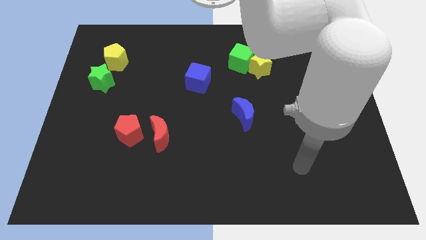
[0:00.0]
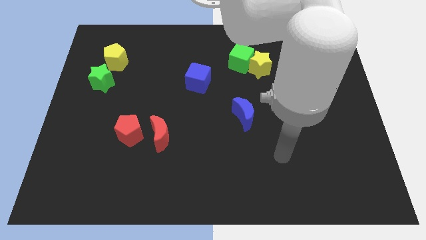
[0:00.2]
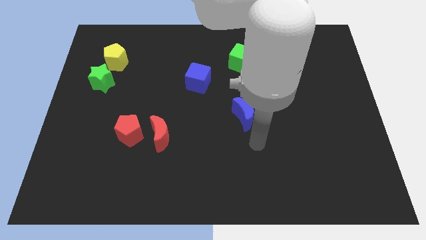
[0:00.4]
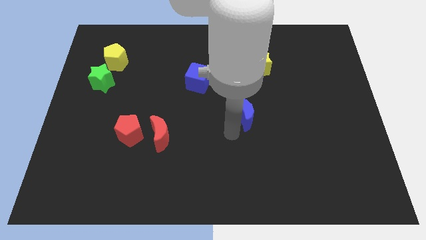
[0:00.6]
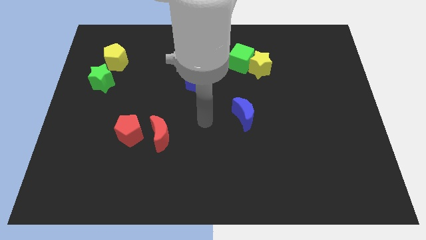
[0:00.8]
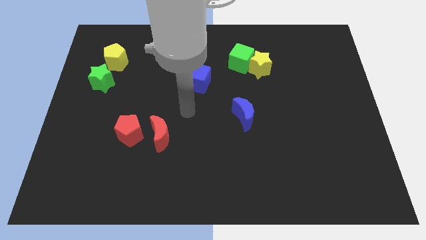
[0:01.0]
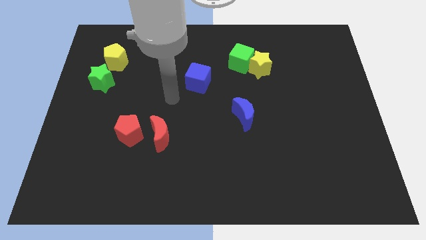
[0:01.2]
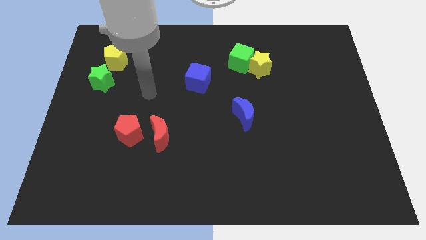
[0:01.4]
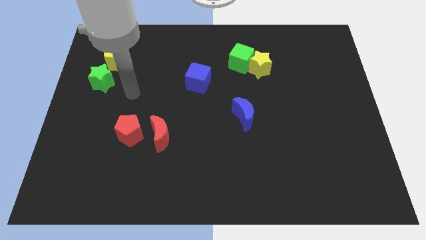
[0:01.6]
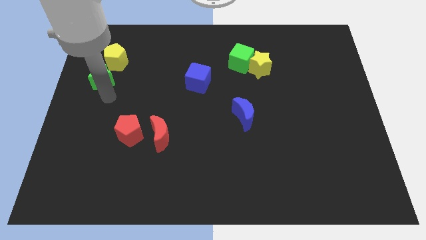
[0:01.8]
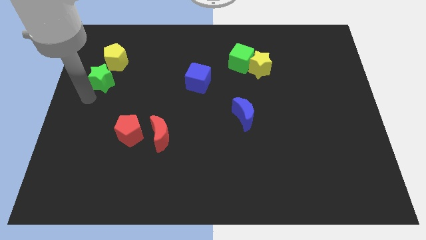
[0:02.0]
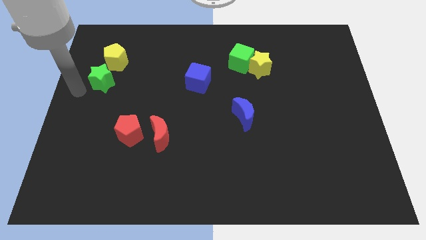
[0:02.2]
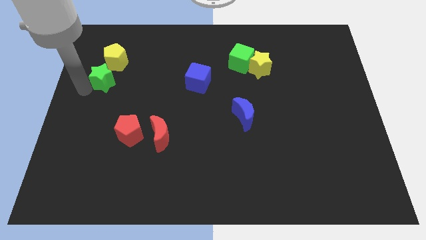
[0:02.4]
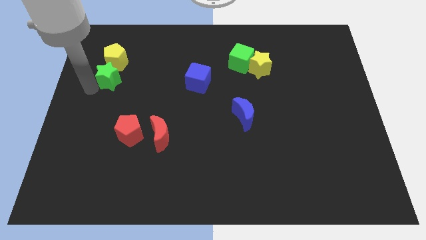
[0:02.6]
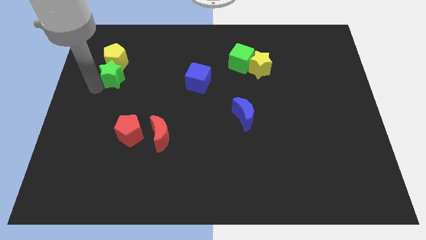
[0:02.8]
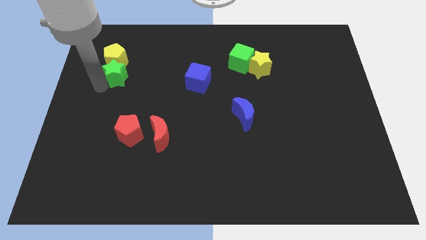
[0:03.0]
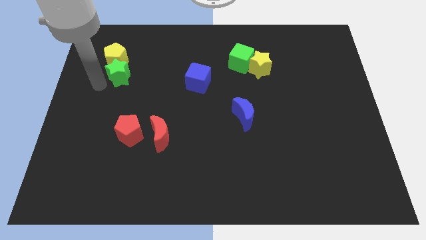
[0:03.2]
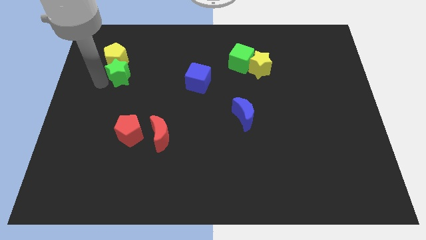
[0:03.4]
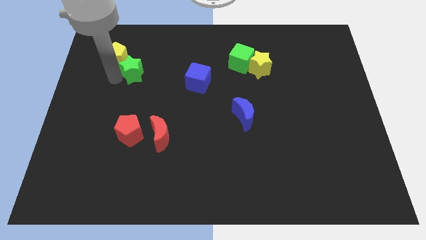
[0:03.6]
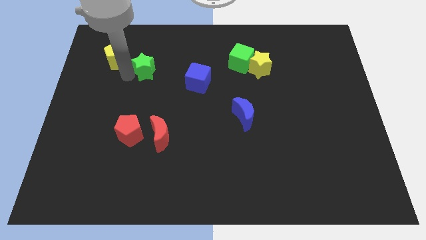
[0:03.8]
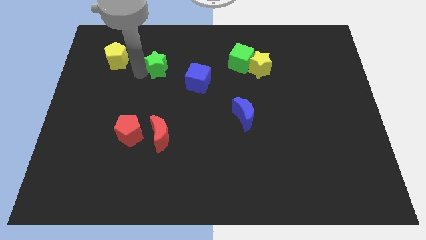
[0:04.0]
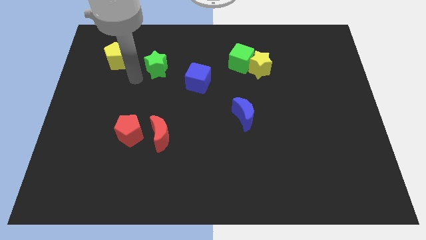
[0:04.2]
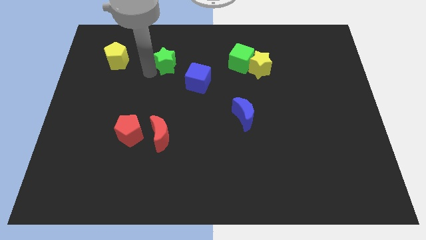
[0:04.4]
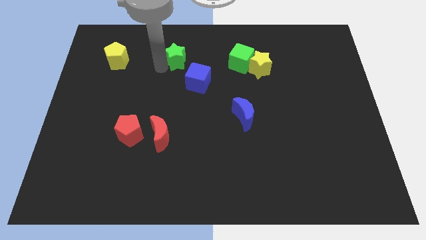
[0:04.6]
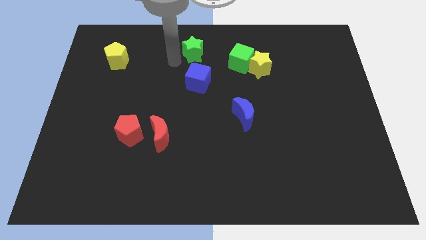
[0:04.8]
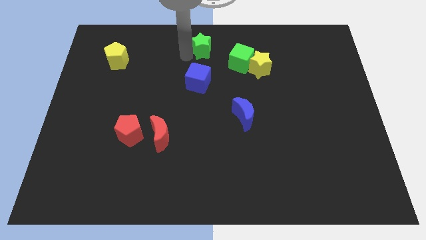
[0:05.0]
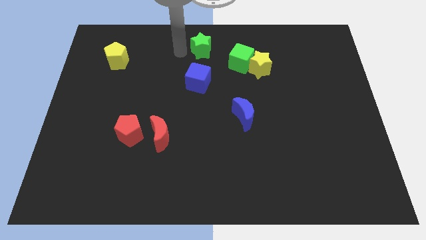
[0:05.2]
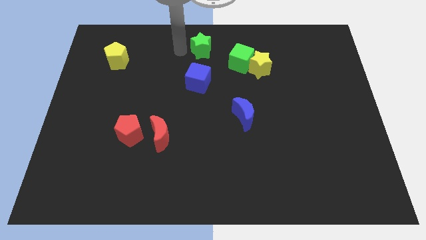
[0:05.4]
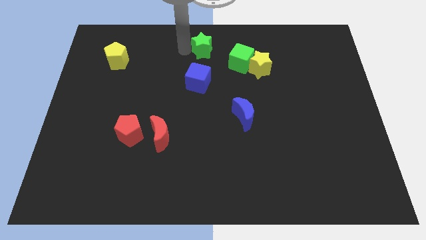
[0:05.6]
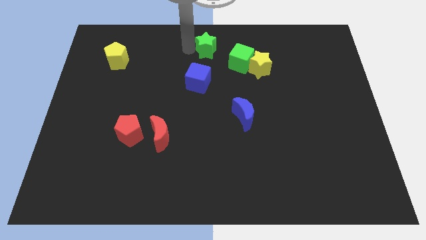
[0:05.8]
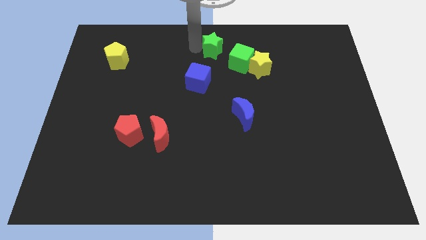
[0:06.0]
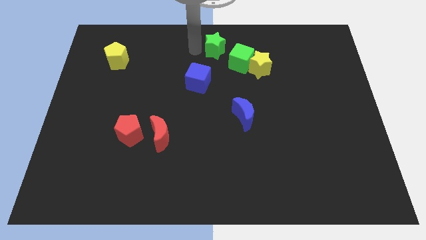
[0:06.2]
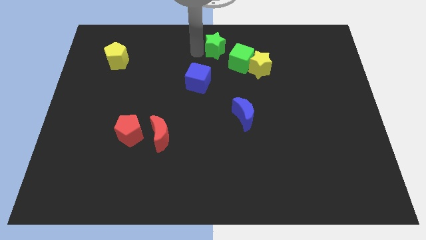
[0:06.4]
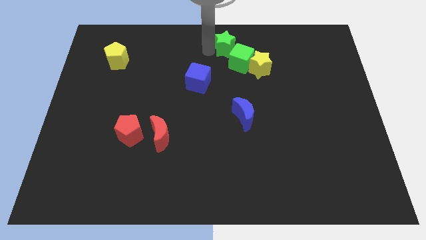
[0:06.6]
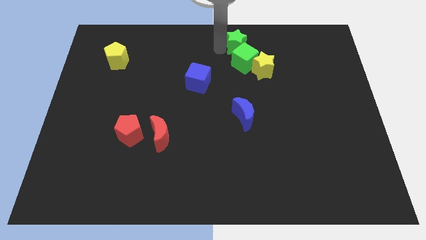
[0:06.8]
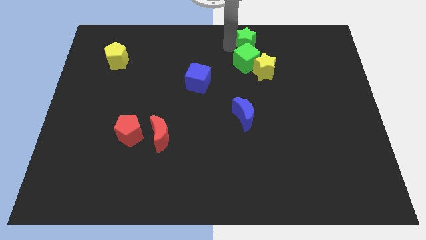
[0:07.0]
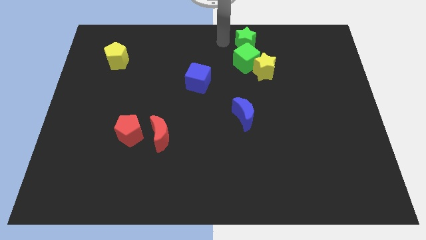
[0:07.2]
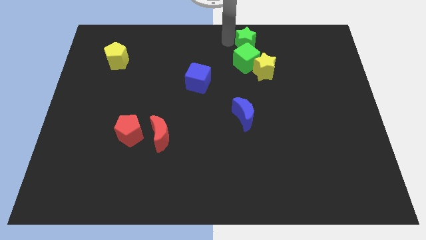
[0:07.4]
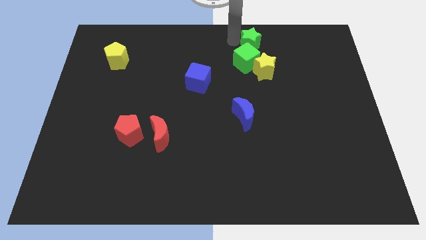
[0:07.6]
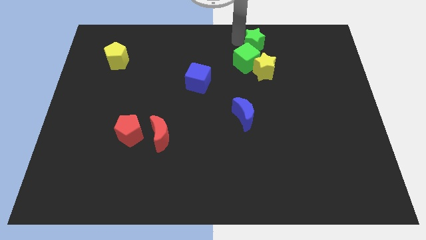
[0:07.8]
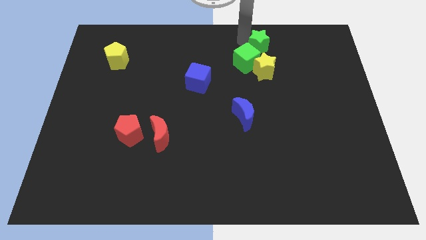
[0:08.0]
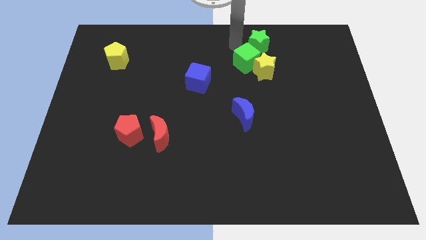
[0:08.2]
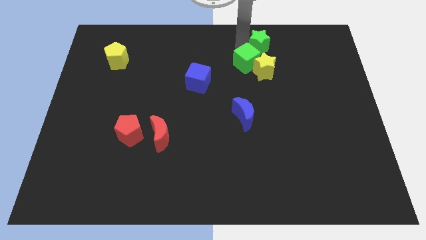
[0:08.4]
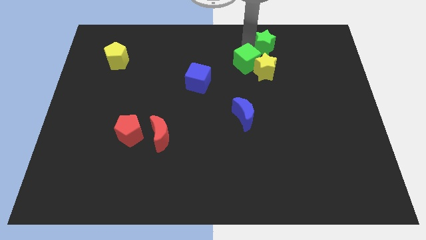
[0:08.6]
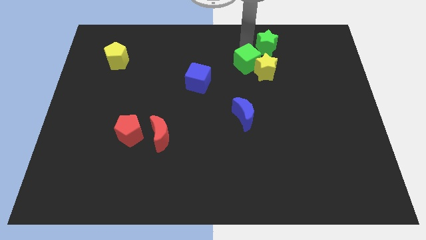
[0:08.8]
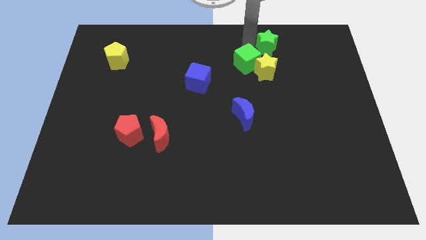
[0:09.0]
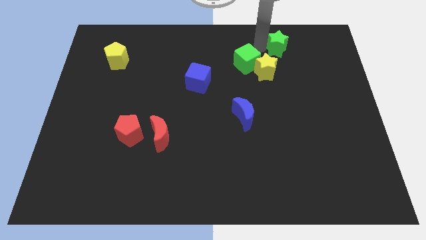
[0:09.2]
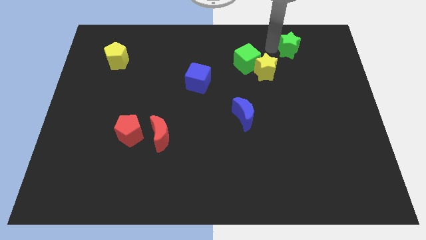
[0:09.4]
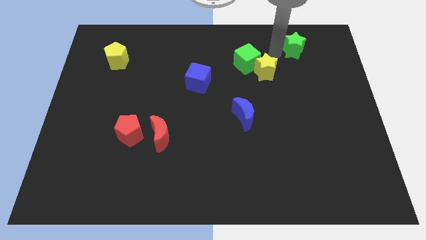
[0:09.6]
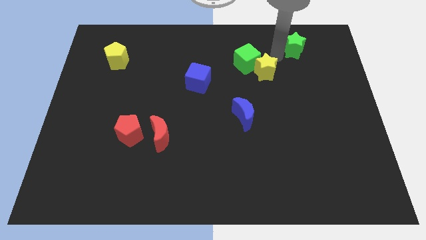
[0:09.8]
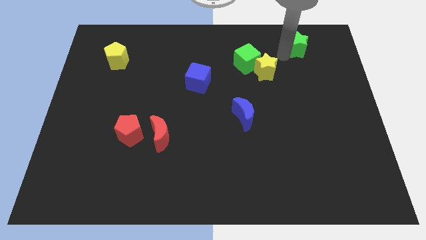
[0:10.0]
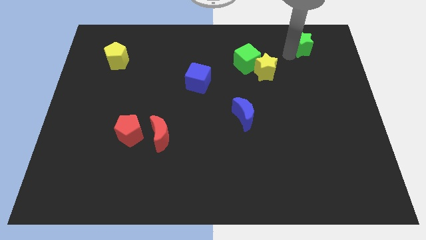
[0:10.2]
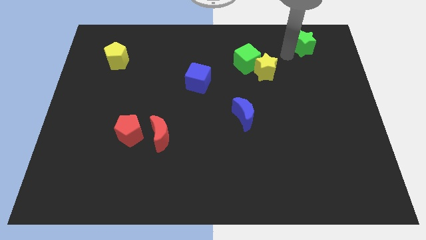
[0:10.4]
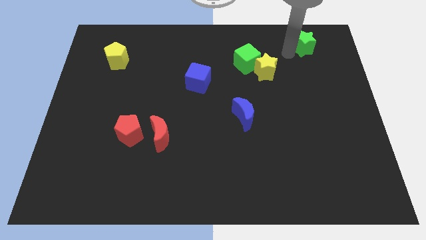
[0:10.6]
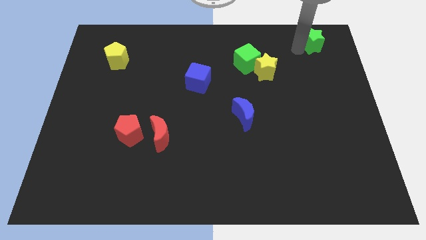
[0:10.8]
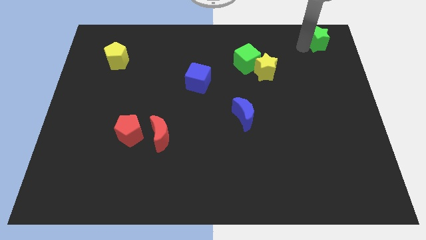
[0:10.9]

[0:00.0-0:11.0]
move the green star to the top right
